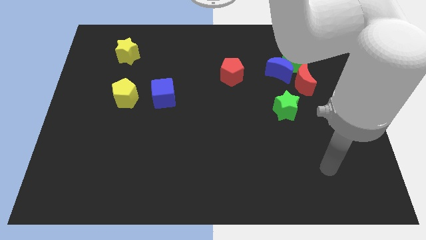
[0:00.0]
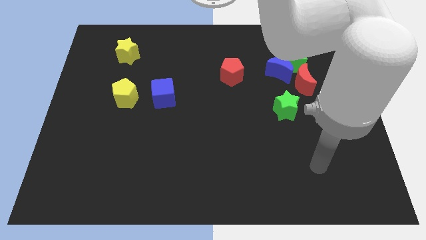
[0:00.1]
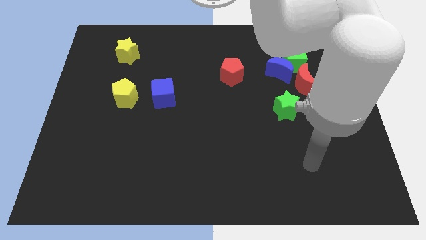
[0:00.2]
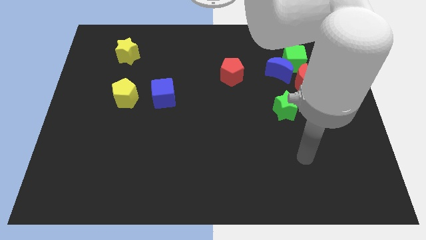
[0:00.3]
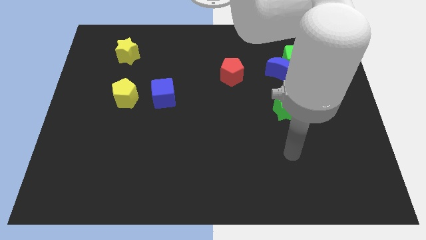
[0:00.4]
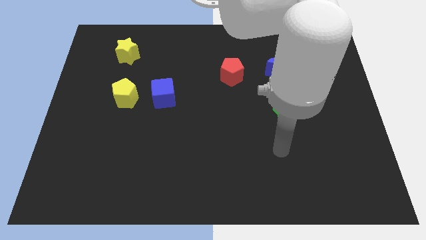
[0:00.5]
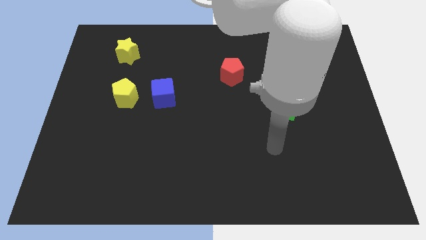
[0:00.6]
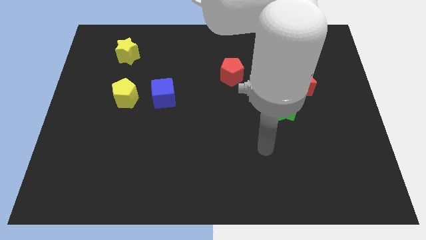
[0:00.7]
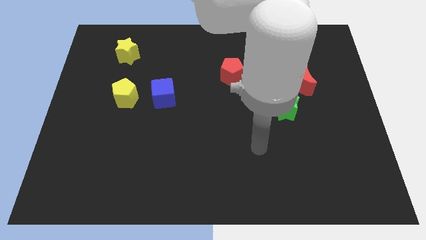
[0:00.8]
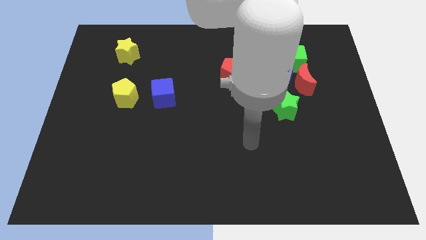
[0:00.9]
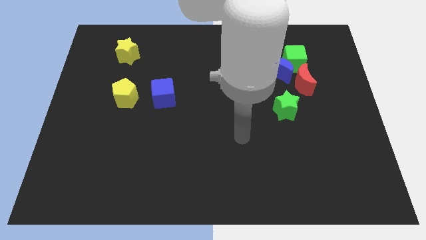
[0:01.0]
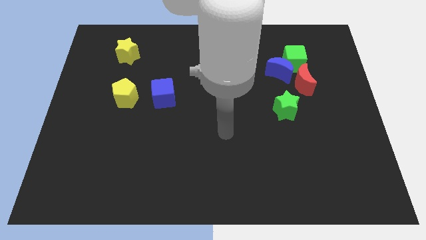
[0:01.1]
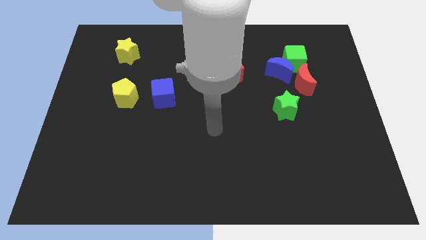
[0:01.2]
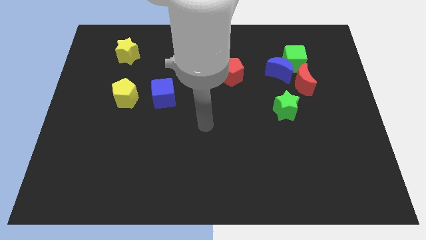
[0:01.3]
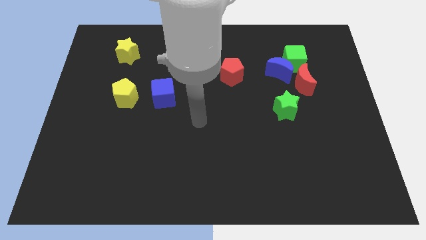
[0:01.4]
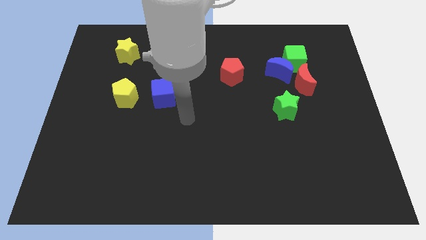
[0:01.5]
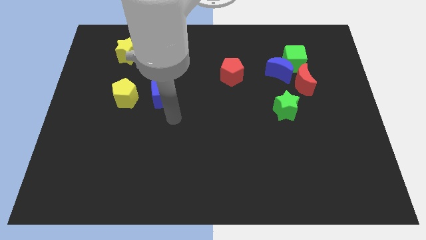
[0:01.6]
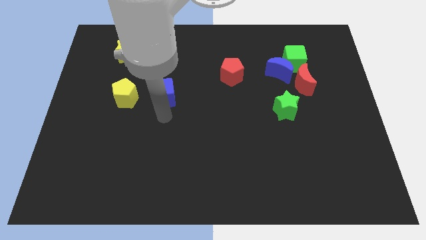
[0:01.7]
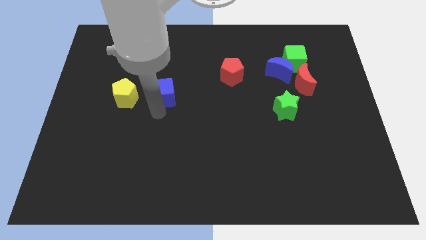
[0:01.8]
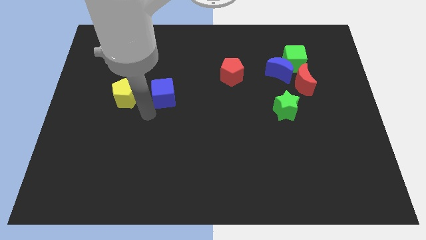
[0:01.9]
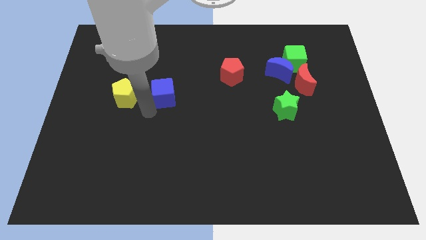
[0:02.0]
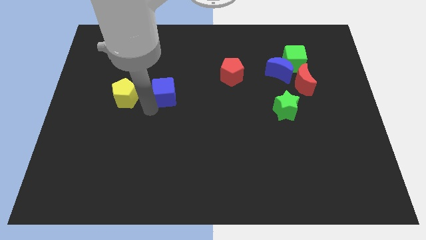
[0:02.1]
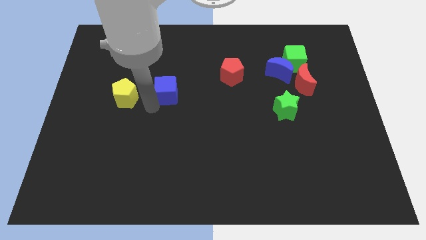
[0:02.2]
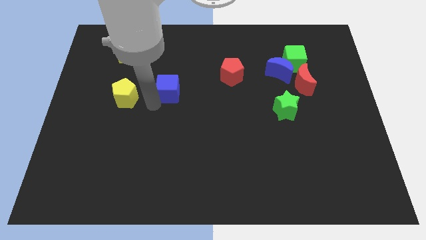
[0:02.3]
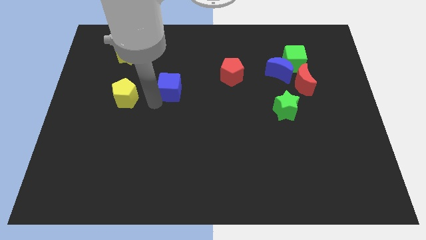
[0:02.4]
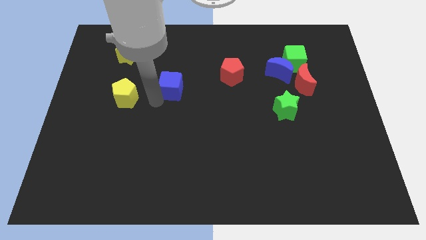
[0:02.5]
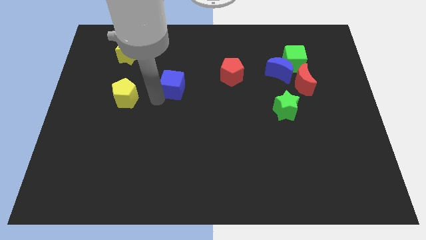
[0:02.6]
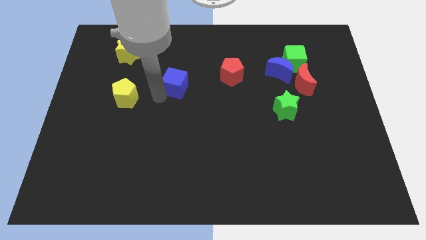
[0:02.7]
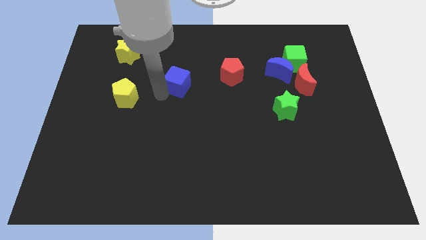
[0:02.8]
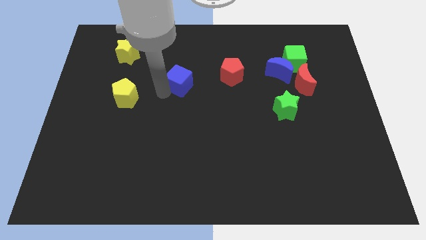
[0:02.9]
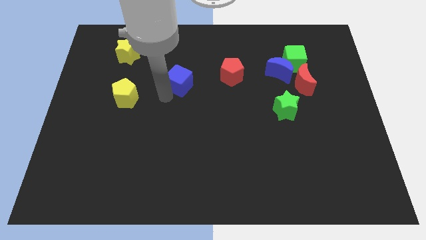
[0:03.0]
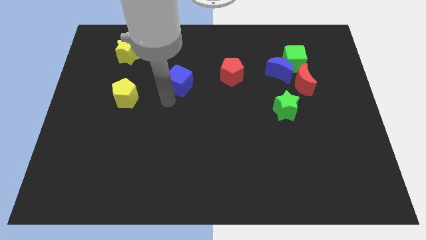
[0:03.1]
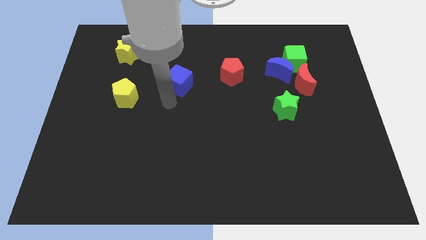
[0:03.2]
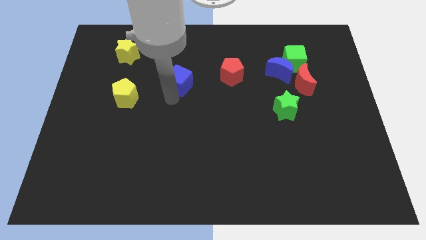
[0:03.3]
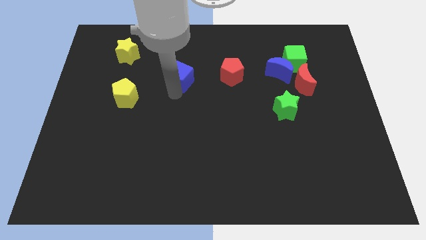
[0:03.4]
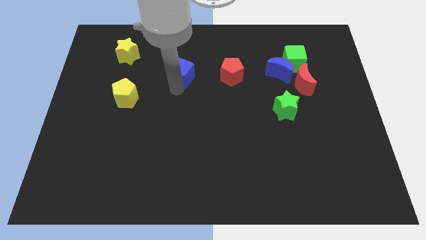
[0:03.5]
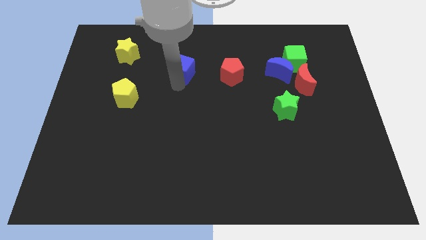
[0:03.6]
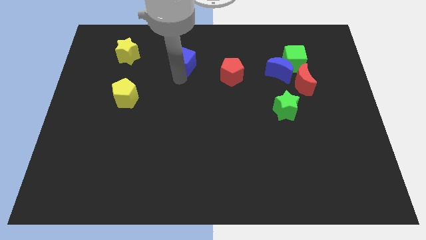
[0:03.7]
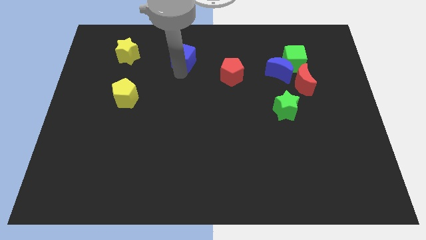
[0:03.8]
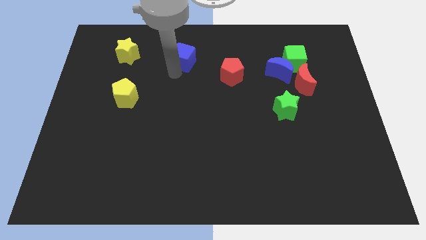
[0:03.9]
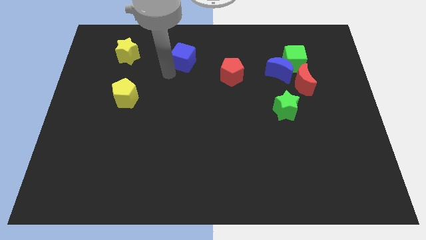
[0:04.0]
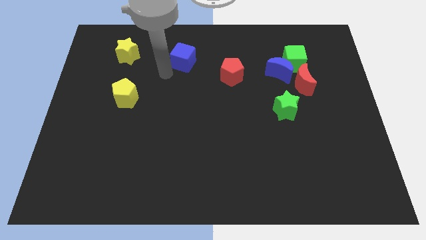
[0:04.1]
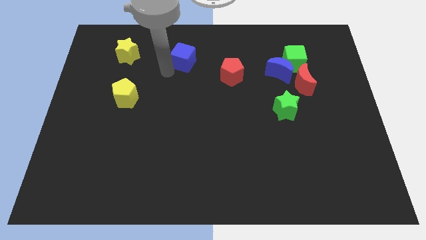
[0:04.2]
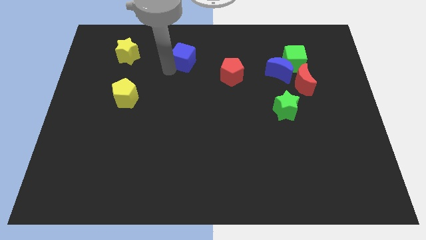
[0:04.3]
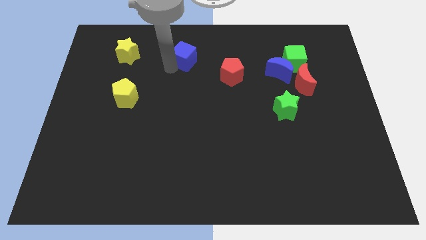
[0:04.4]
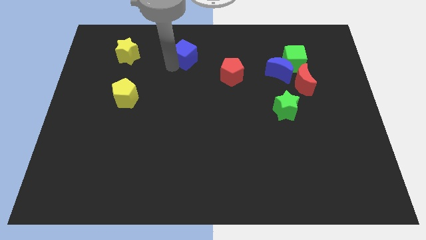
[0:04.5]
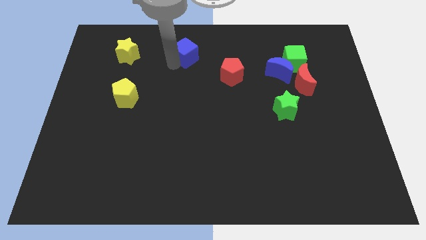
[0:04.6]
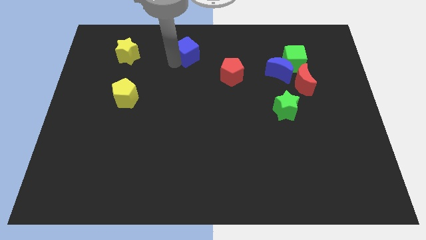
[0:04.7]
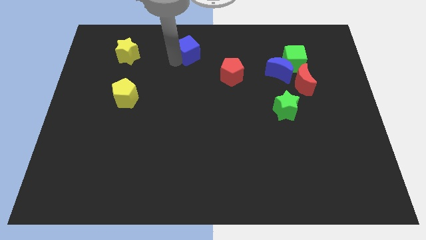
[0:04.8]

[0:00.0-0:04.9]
put the blue cube to the top

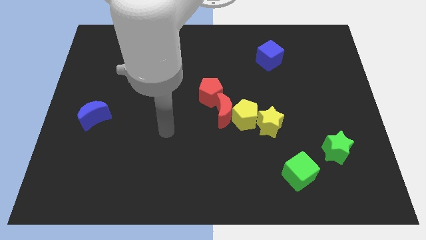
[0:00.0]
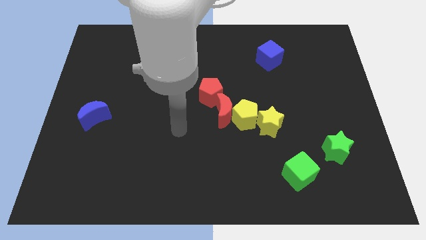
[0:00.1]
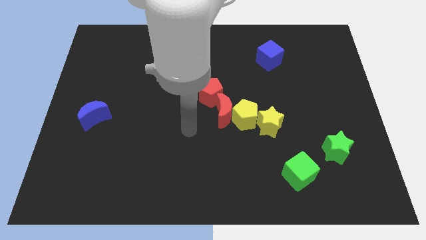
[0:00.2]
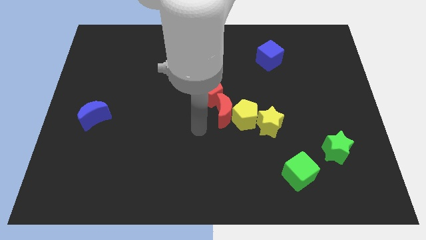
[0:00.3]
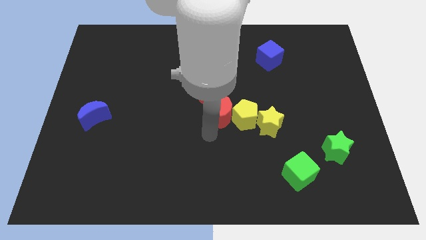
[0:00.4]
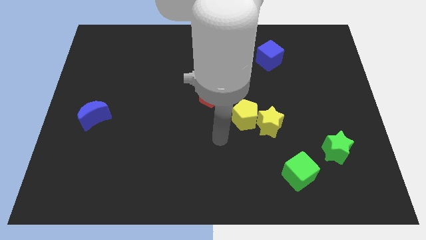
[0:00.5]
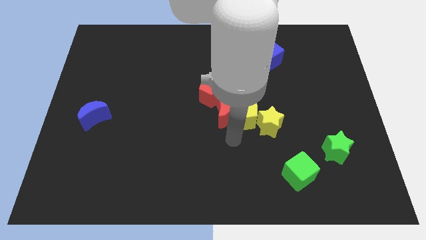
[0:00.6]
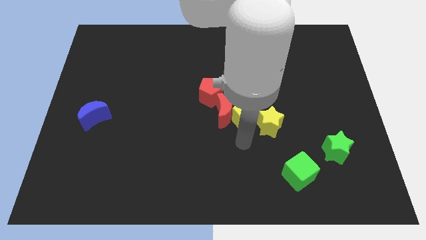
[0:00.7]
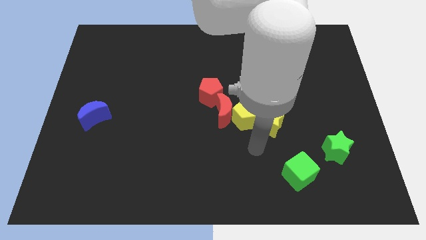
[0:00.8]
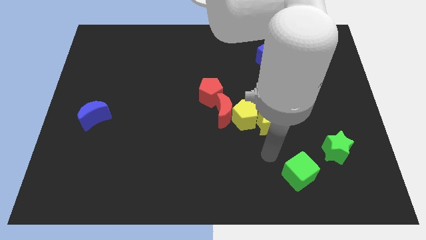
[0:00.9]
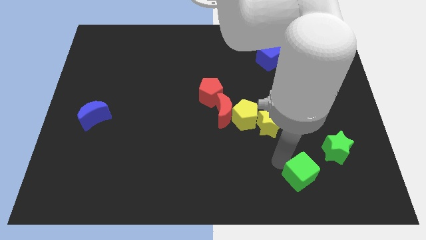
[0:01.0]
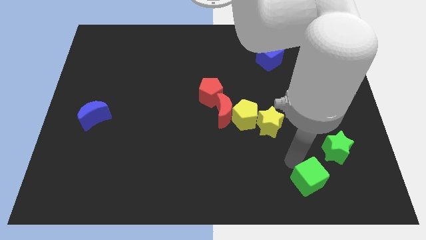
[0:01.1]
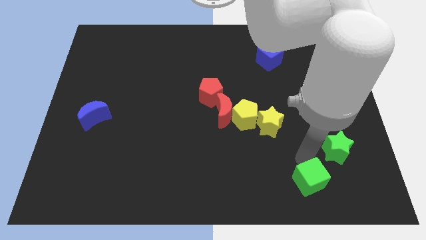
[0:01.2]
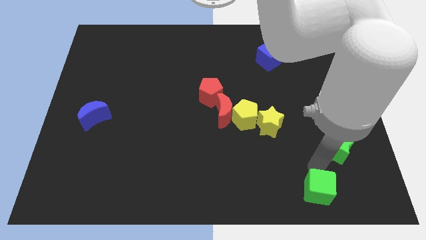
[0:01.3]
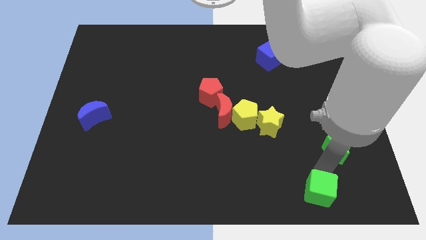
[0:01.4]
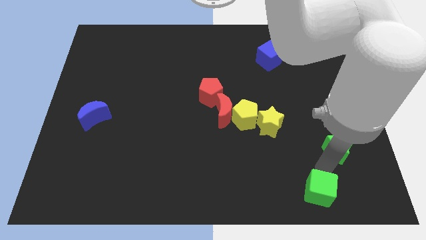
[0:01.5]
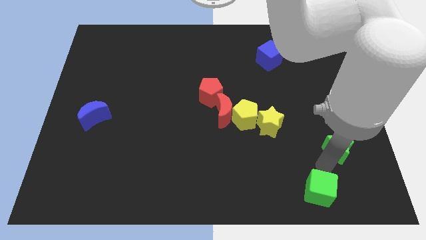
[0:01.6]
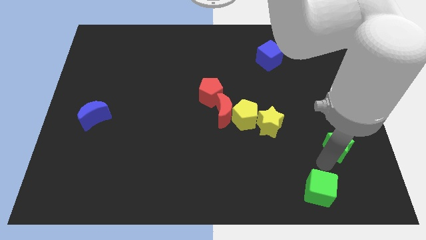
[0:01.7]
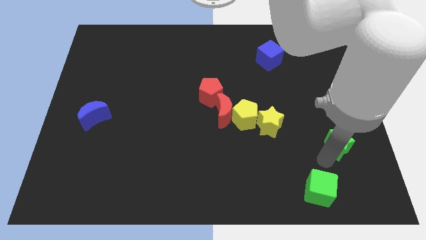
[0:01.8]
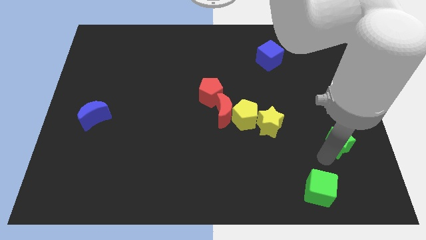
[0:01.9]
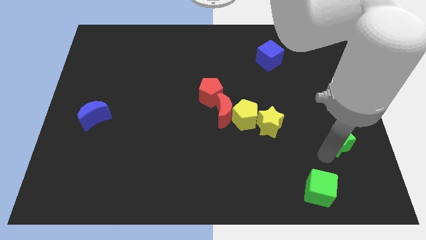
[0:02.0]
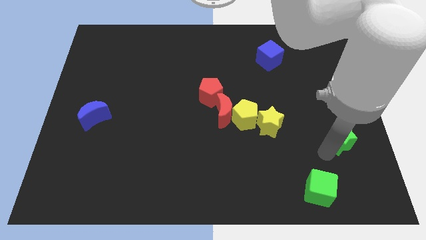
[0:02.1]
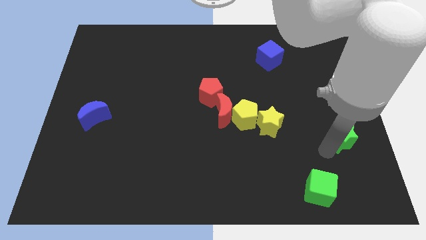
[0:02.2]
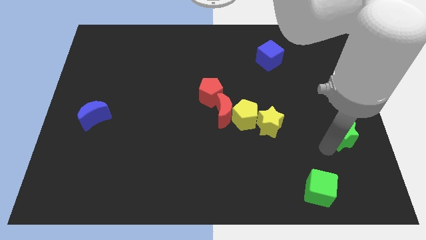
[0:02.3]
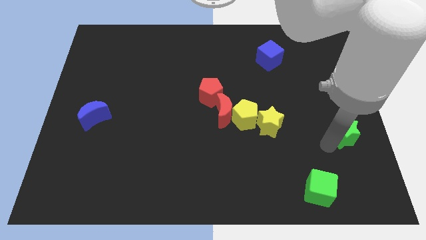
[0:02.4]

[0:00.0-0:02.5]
move the green star to the center right

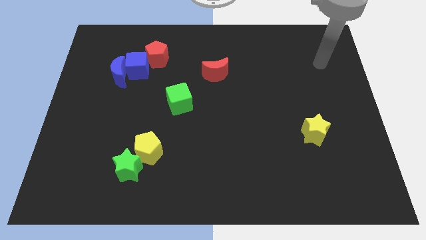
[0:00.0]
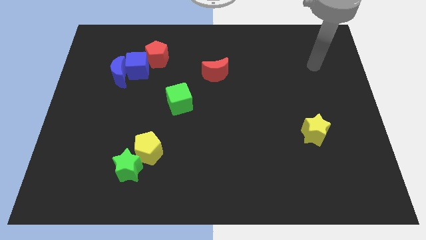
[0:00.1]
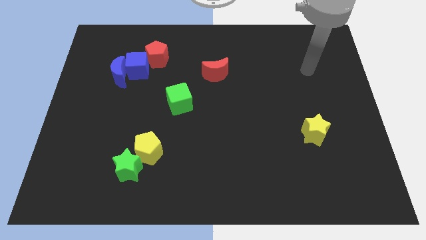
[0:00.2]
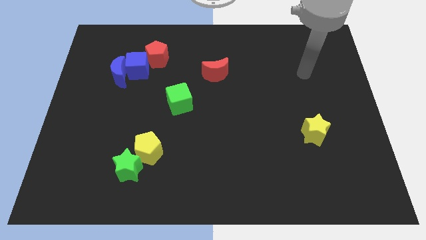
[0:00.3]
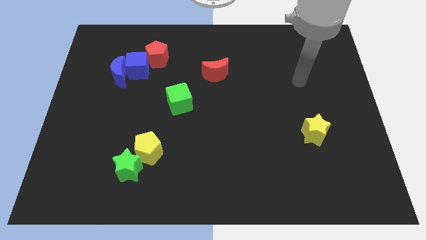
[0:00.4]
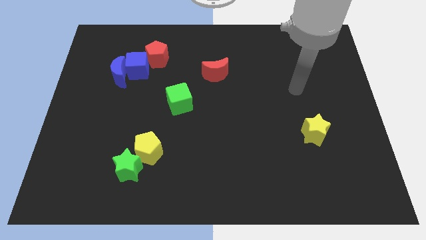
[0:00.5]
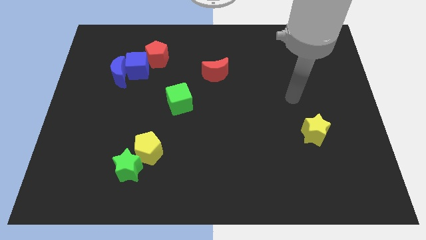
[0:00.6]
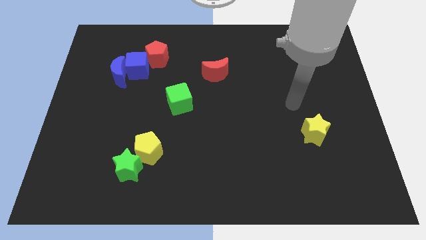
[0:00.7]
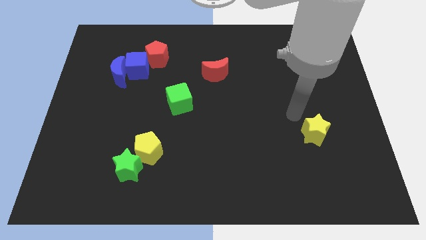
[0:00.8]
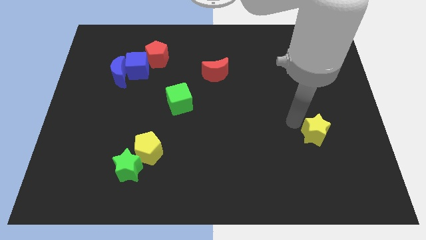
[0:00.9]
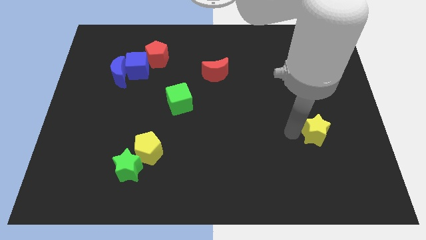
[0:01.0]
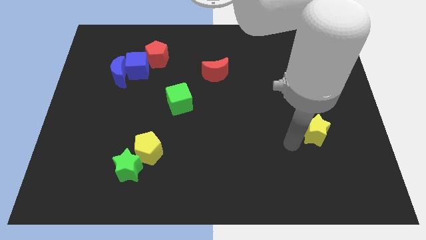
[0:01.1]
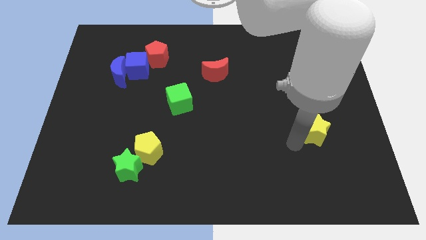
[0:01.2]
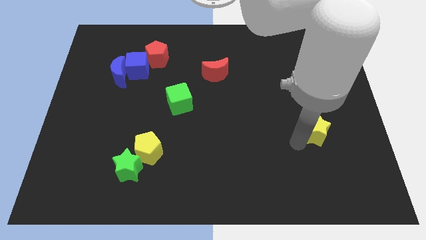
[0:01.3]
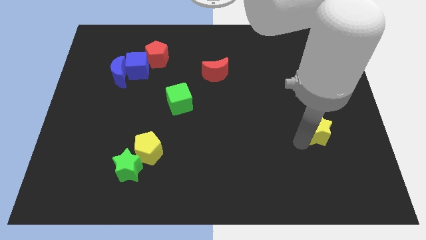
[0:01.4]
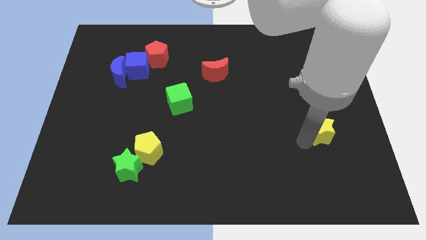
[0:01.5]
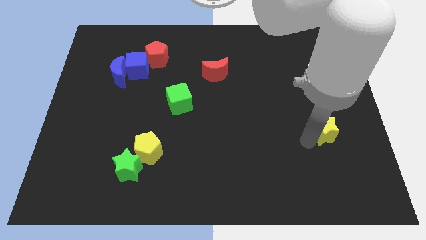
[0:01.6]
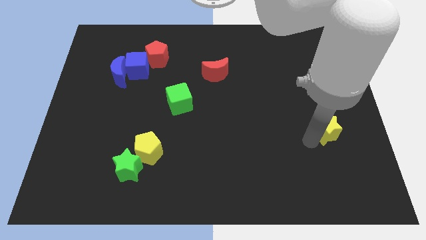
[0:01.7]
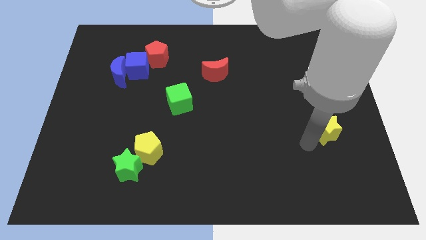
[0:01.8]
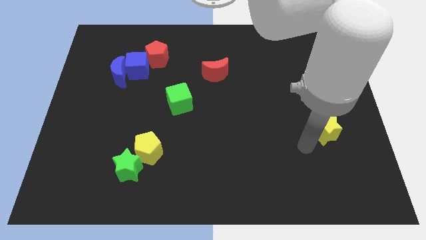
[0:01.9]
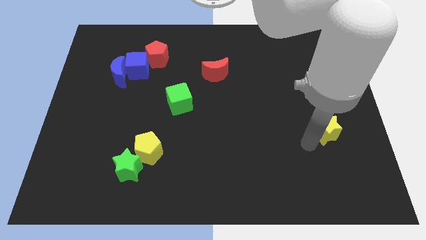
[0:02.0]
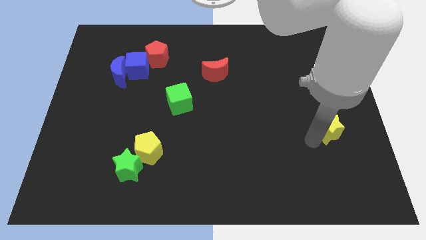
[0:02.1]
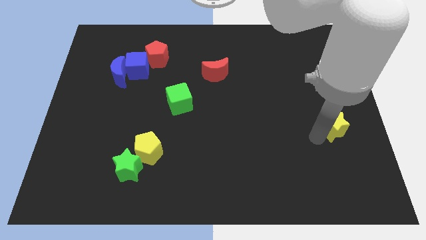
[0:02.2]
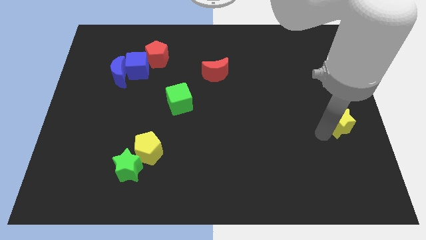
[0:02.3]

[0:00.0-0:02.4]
move the yellow star to the right side of the board
